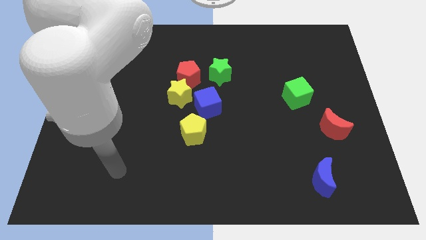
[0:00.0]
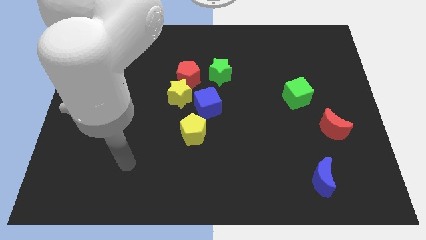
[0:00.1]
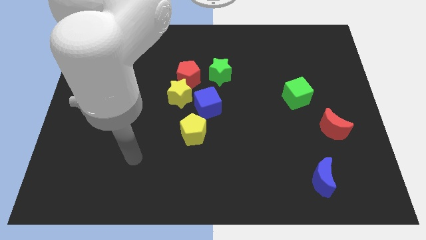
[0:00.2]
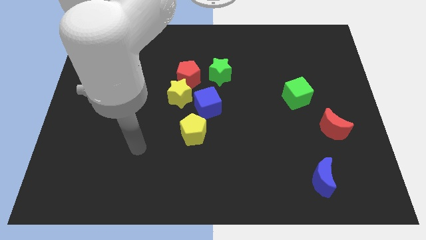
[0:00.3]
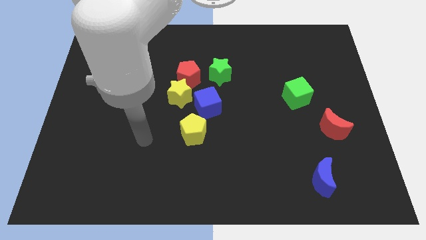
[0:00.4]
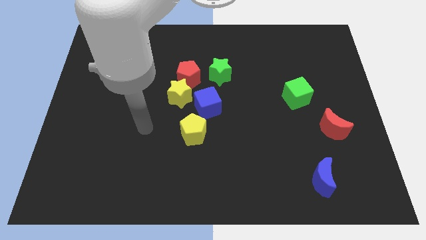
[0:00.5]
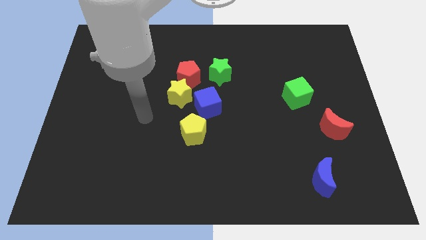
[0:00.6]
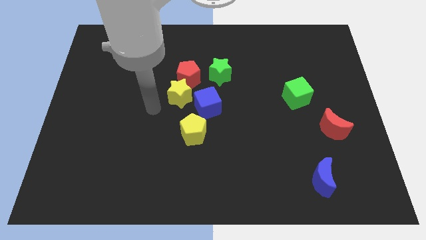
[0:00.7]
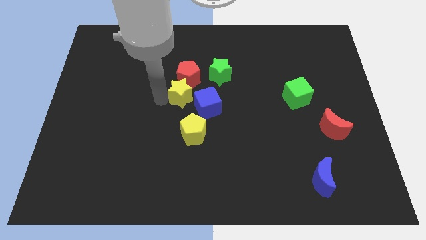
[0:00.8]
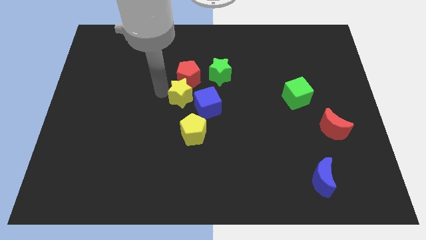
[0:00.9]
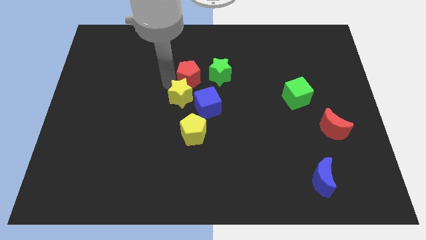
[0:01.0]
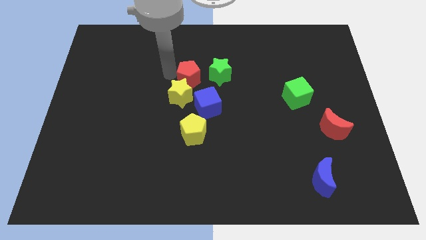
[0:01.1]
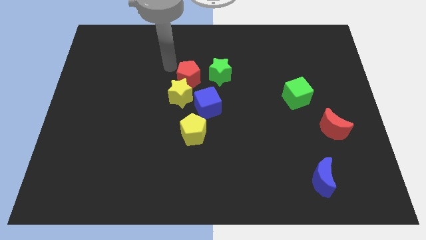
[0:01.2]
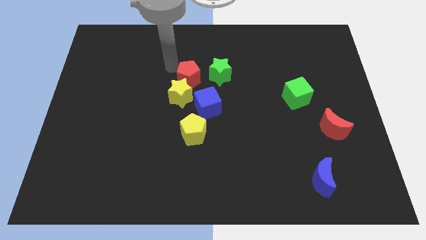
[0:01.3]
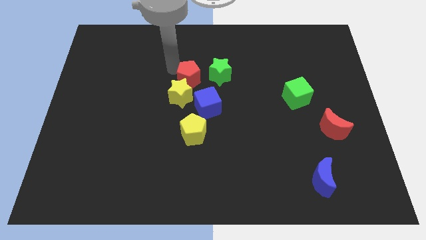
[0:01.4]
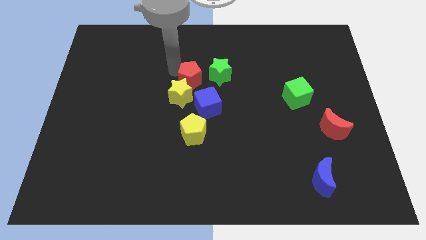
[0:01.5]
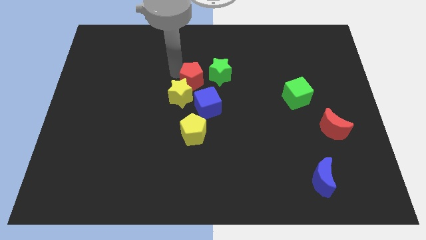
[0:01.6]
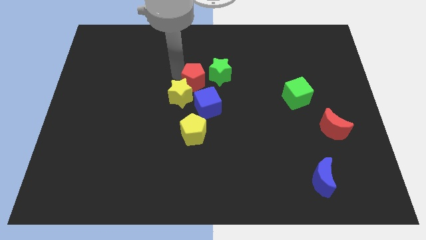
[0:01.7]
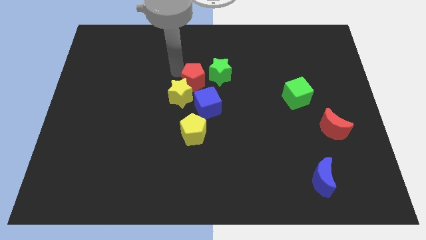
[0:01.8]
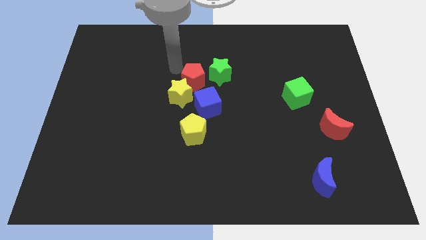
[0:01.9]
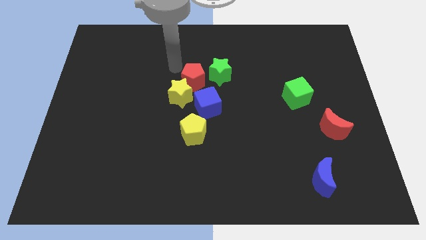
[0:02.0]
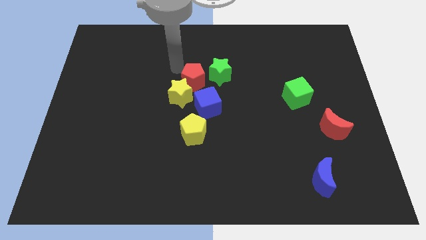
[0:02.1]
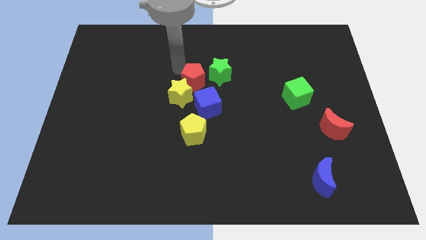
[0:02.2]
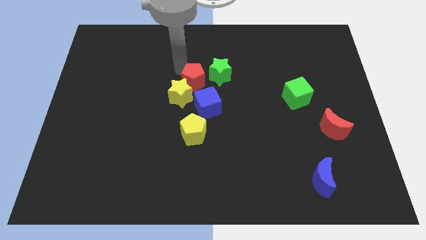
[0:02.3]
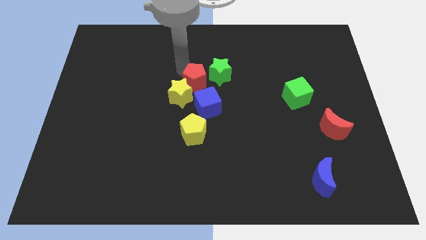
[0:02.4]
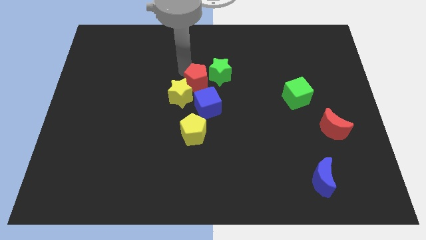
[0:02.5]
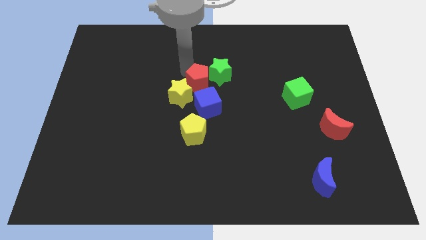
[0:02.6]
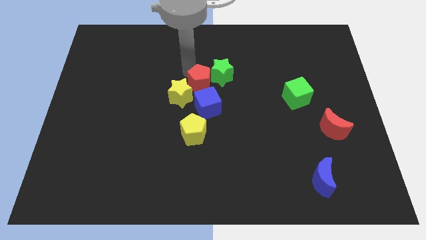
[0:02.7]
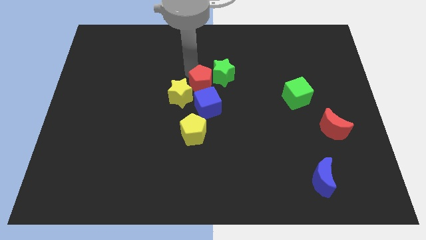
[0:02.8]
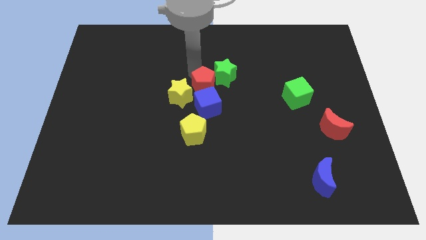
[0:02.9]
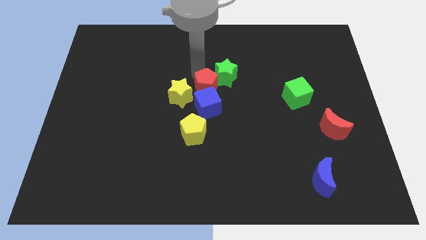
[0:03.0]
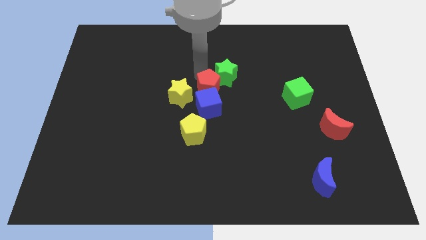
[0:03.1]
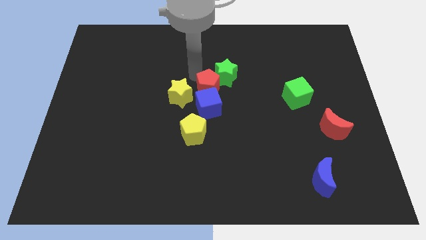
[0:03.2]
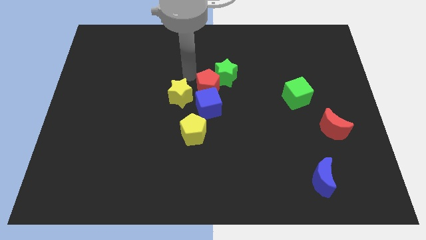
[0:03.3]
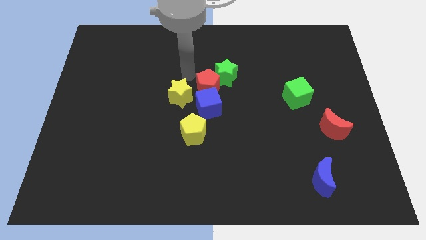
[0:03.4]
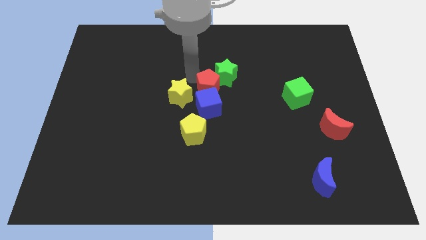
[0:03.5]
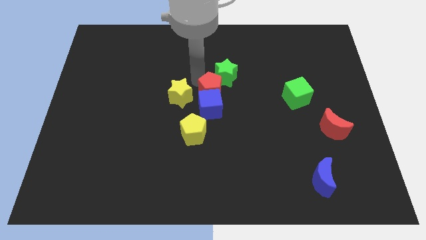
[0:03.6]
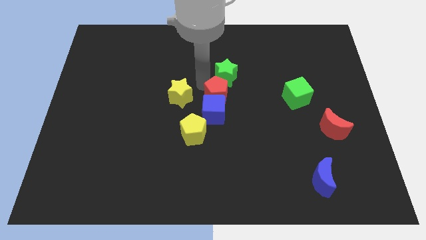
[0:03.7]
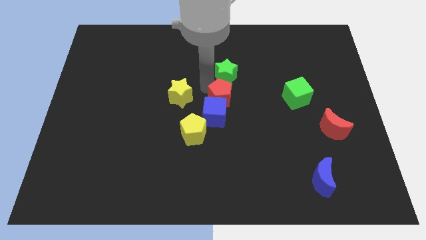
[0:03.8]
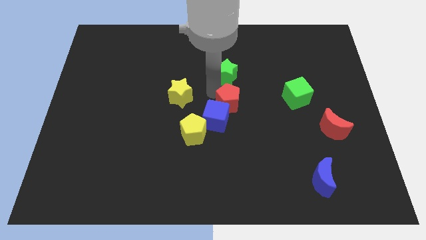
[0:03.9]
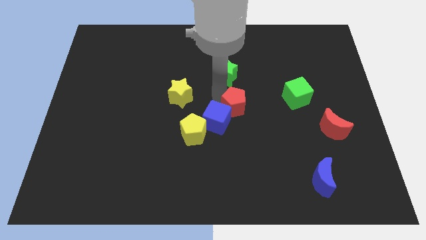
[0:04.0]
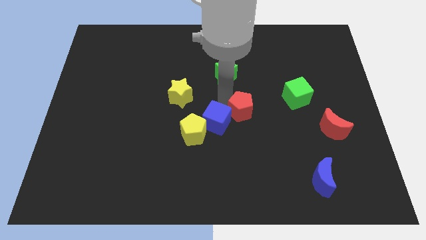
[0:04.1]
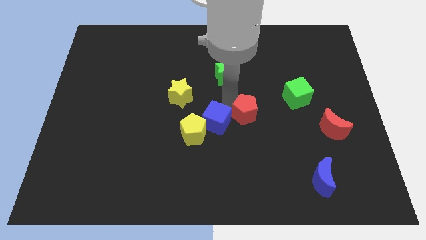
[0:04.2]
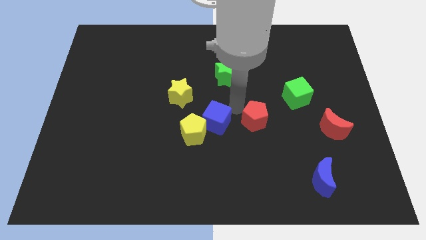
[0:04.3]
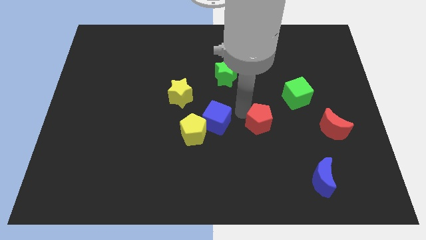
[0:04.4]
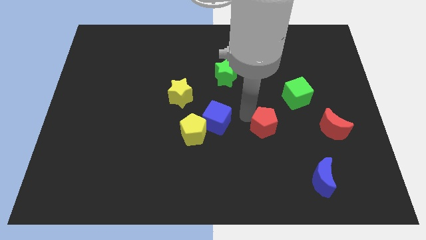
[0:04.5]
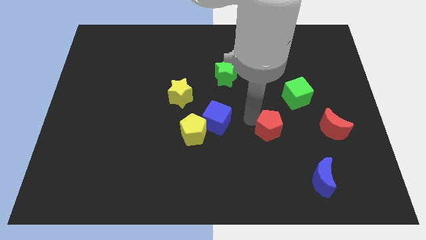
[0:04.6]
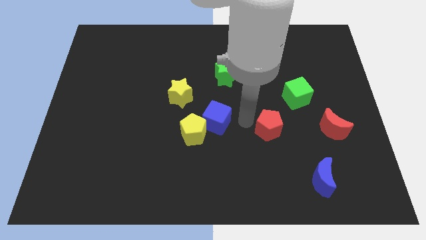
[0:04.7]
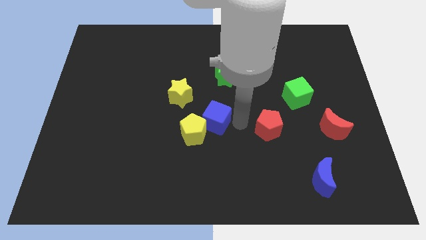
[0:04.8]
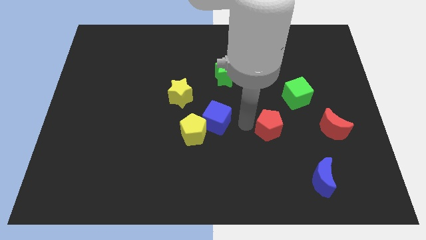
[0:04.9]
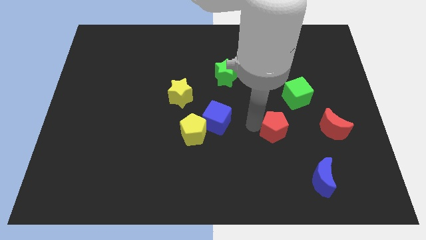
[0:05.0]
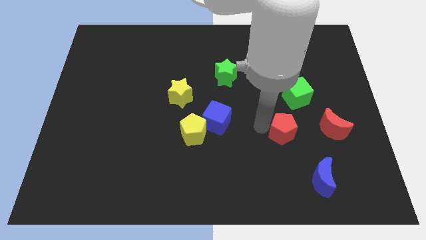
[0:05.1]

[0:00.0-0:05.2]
push the red pentagon to the bottom side of the green cube

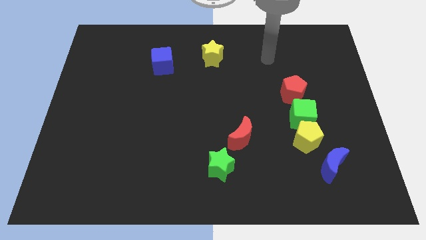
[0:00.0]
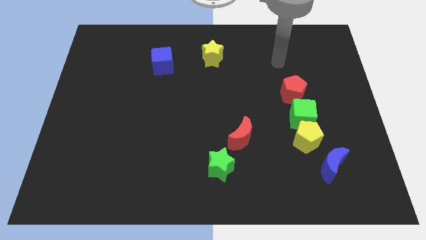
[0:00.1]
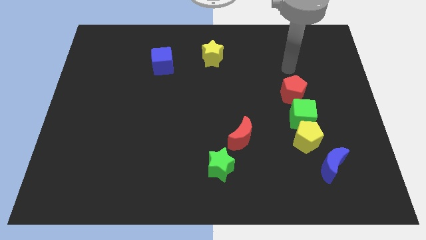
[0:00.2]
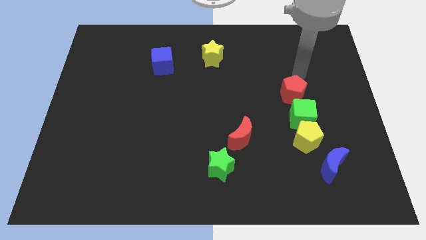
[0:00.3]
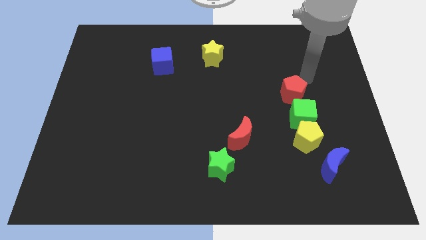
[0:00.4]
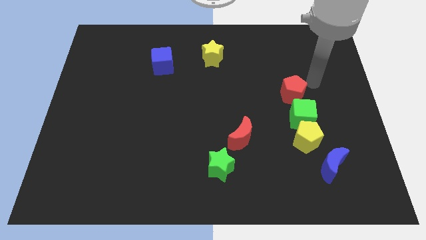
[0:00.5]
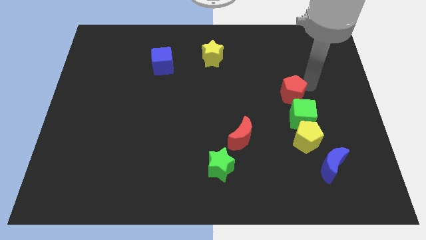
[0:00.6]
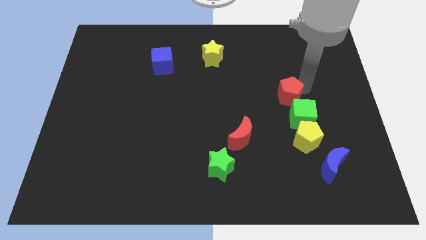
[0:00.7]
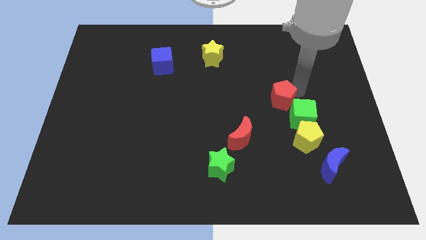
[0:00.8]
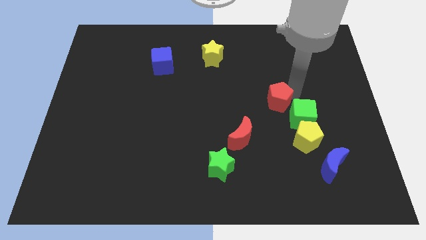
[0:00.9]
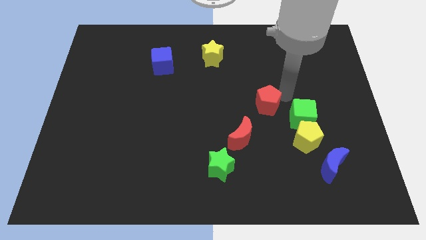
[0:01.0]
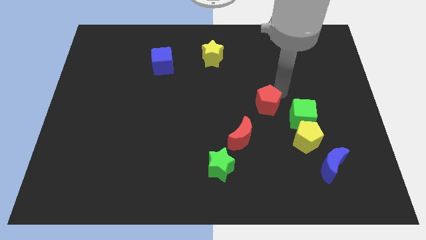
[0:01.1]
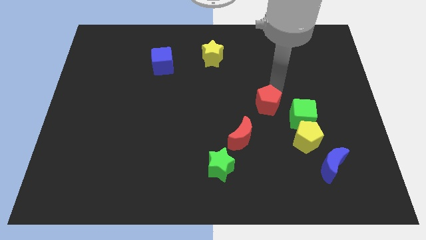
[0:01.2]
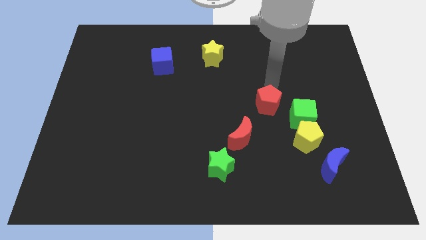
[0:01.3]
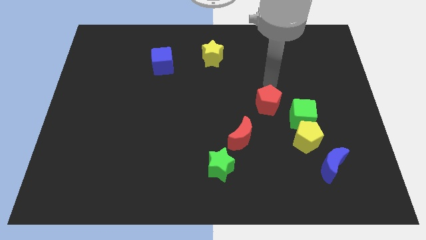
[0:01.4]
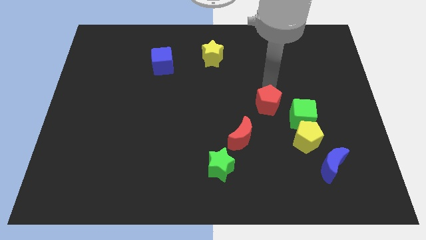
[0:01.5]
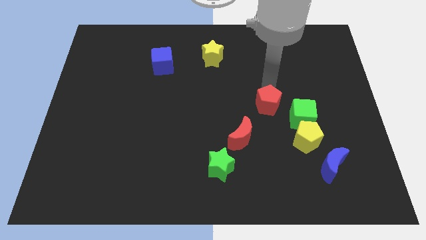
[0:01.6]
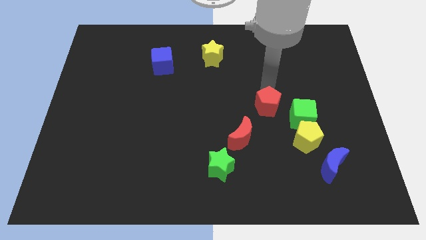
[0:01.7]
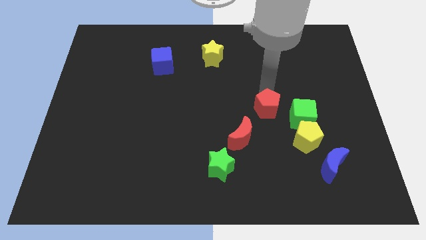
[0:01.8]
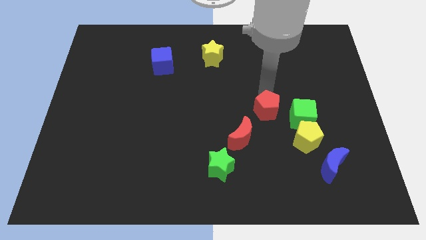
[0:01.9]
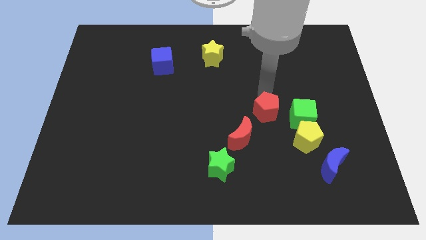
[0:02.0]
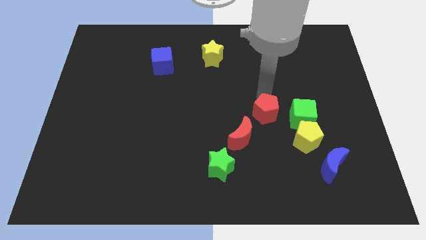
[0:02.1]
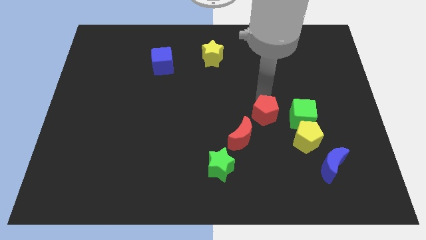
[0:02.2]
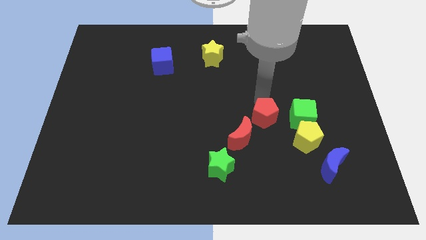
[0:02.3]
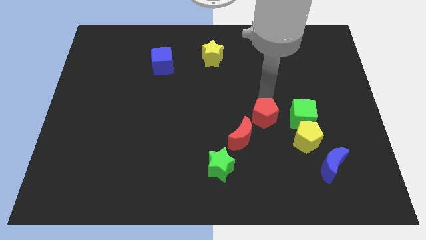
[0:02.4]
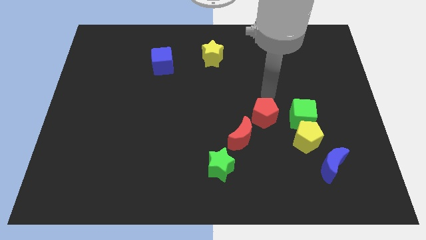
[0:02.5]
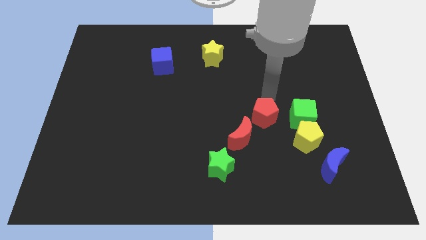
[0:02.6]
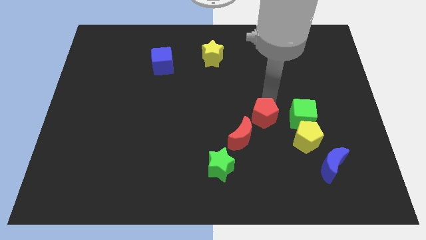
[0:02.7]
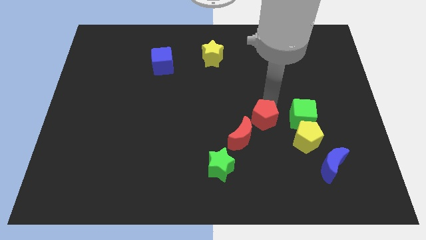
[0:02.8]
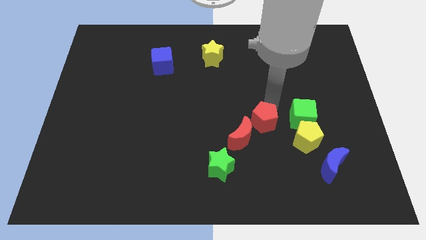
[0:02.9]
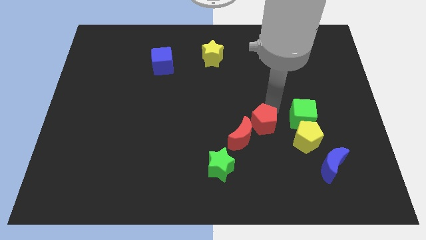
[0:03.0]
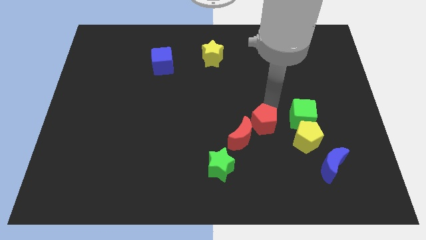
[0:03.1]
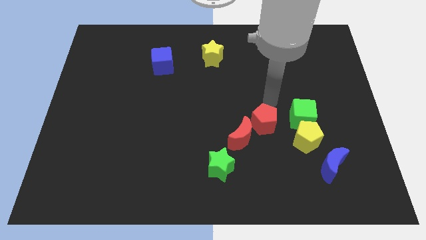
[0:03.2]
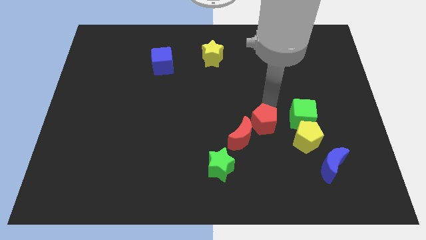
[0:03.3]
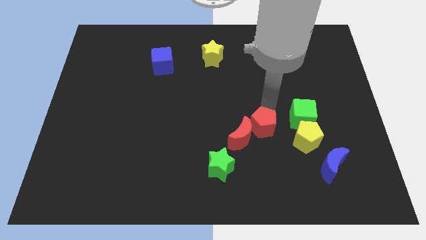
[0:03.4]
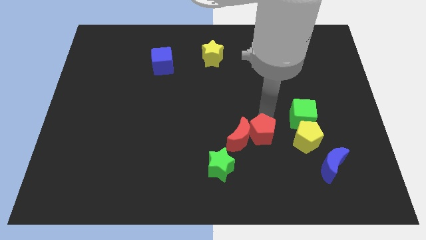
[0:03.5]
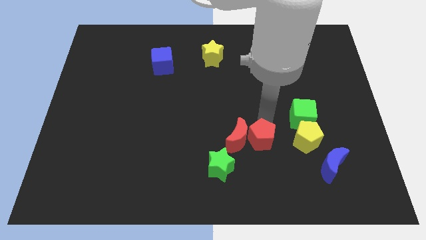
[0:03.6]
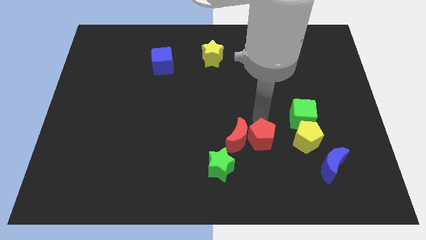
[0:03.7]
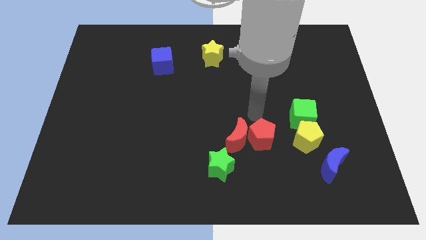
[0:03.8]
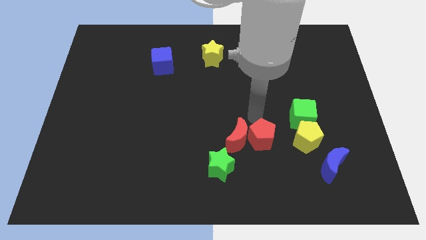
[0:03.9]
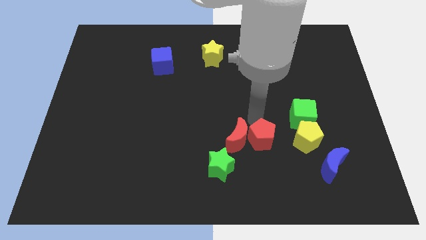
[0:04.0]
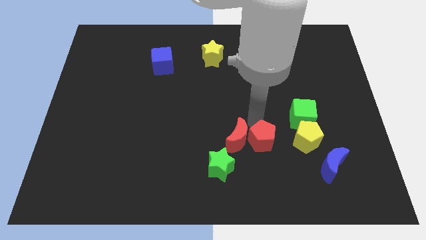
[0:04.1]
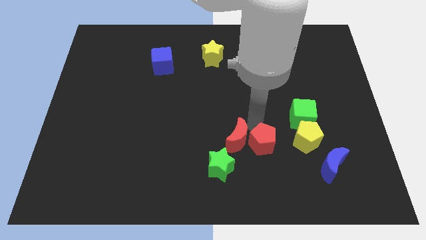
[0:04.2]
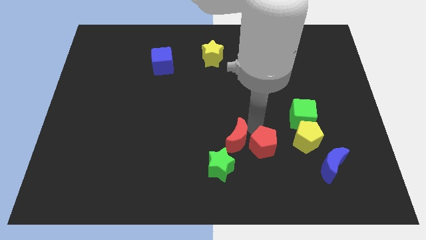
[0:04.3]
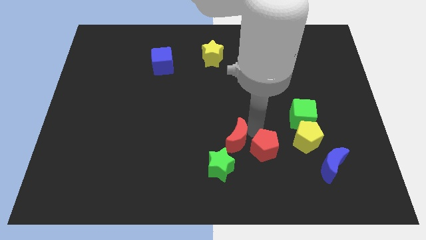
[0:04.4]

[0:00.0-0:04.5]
push the red pentagon to the right side of the green star
